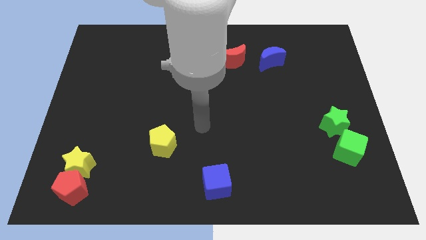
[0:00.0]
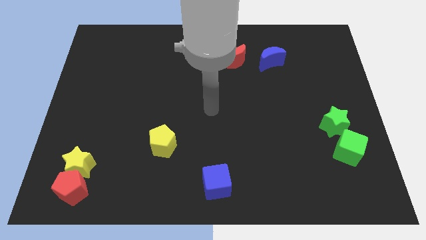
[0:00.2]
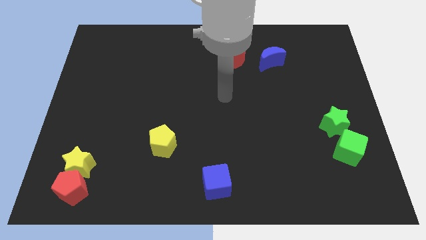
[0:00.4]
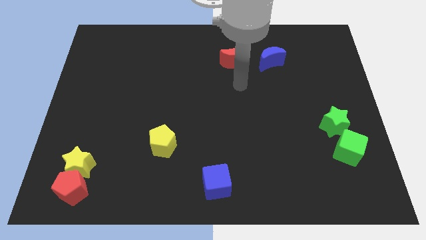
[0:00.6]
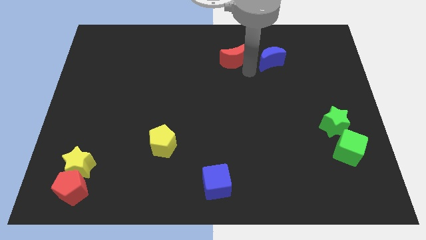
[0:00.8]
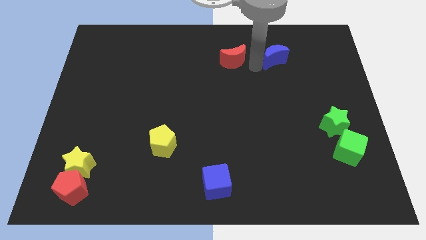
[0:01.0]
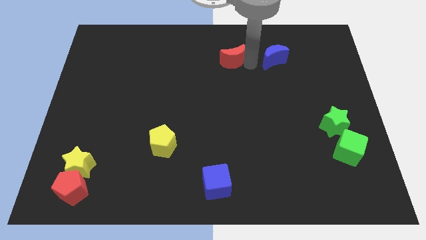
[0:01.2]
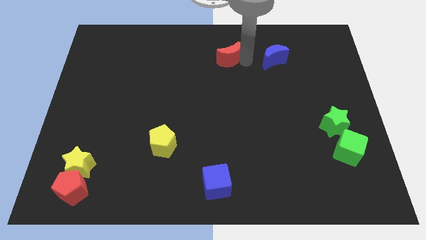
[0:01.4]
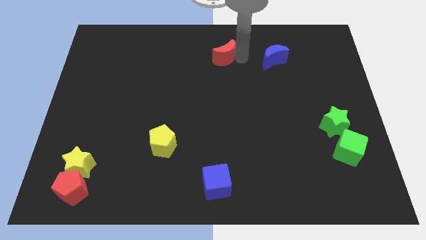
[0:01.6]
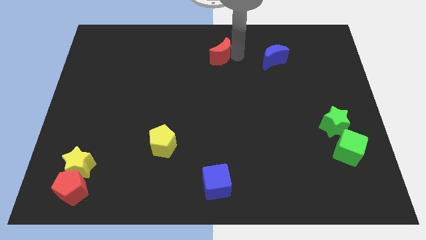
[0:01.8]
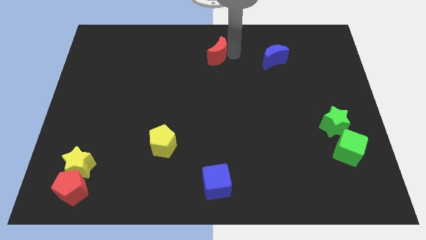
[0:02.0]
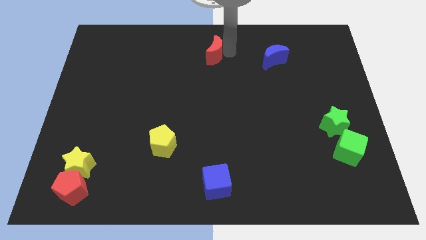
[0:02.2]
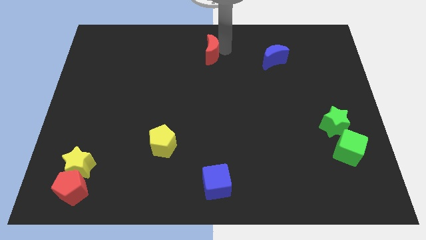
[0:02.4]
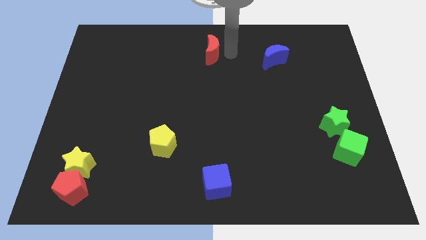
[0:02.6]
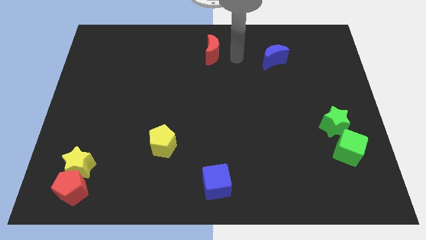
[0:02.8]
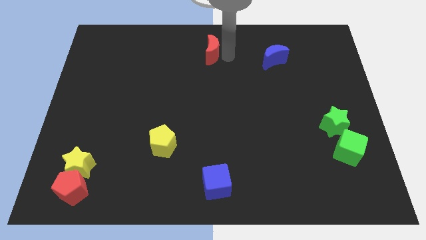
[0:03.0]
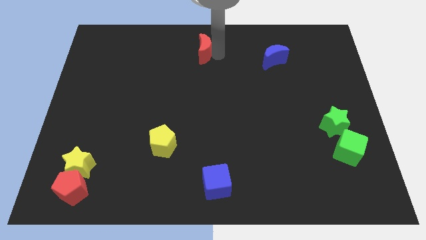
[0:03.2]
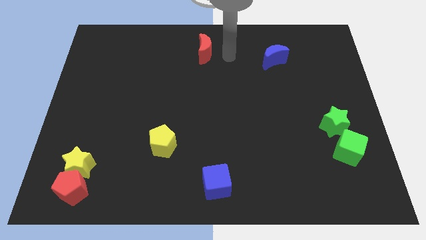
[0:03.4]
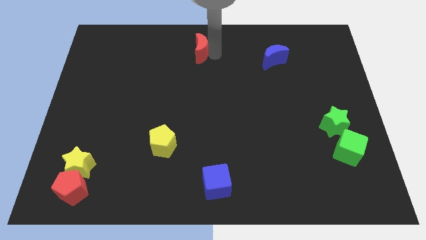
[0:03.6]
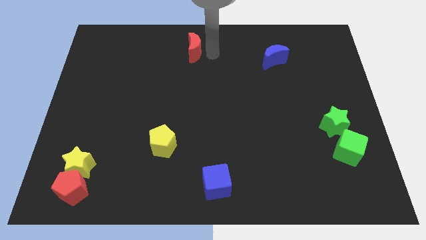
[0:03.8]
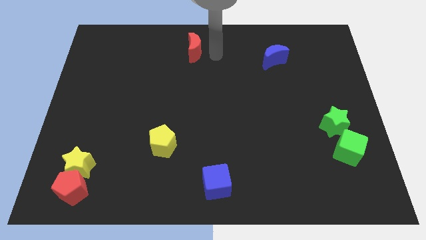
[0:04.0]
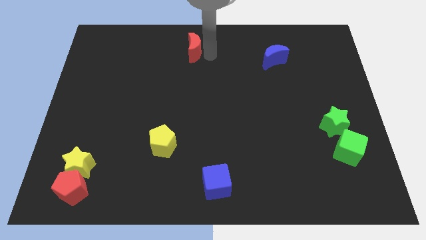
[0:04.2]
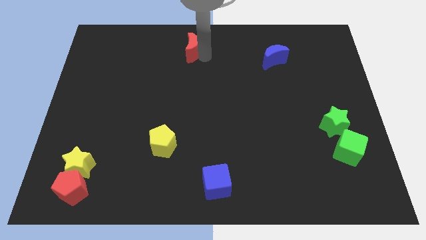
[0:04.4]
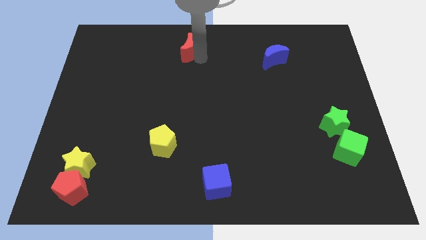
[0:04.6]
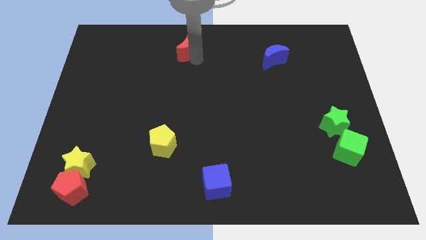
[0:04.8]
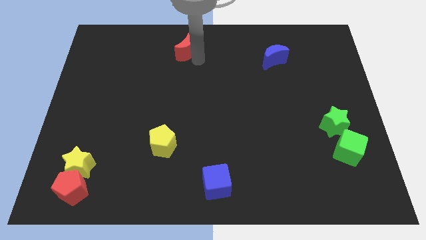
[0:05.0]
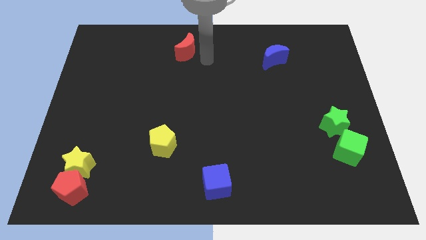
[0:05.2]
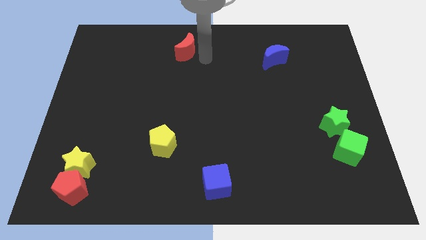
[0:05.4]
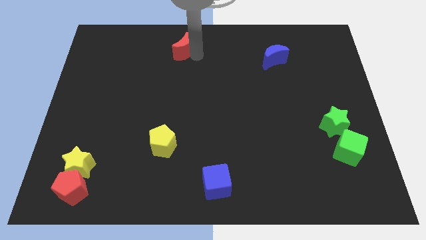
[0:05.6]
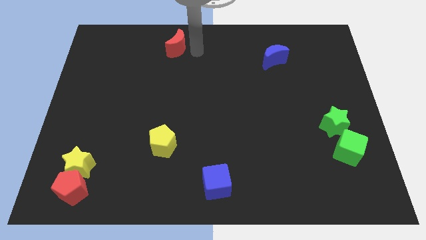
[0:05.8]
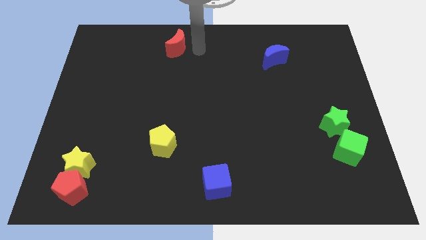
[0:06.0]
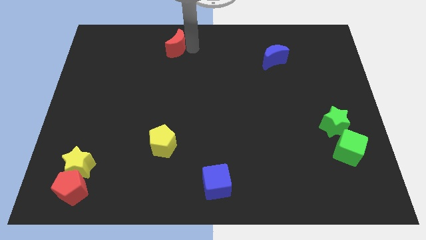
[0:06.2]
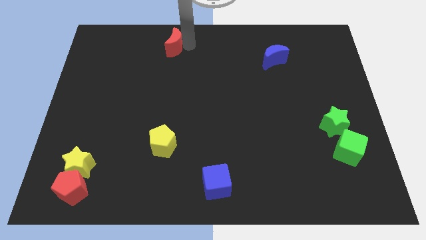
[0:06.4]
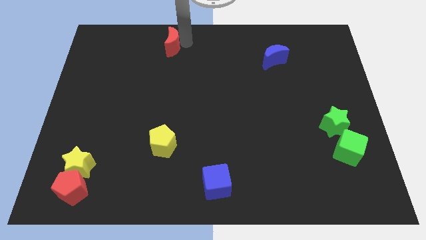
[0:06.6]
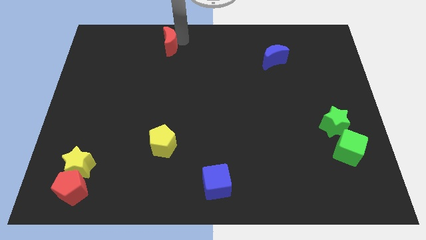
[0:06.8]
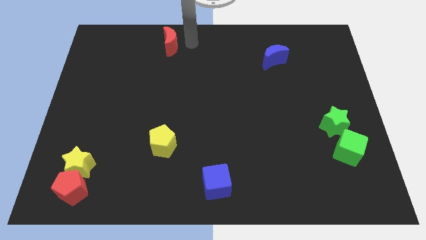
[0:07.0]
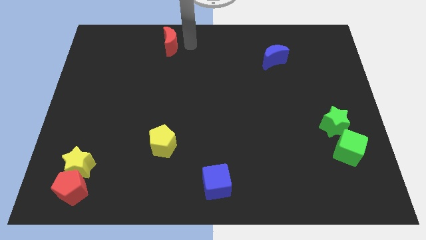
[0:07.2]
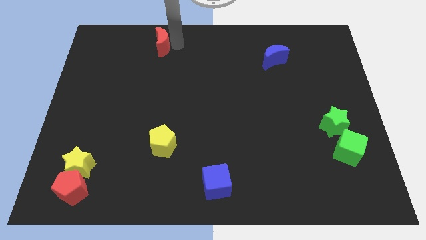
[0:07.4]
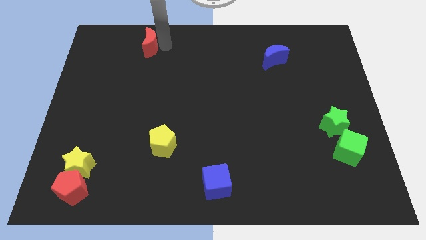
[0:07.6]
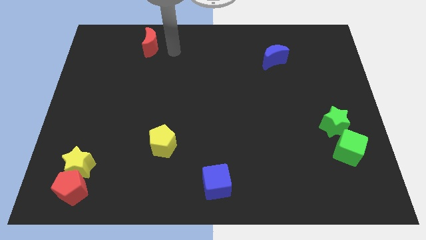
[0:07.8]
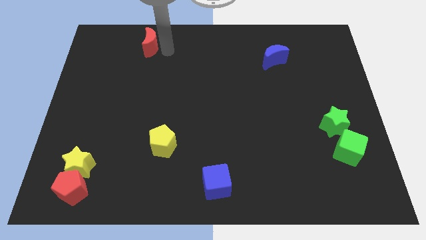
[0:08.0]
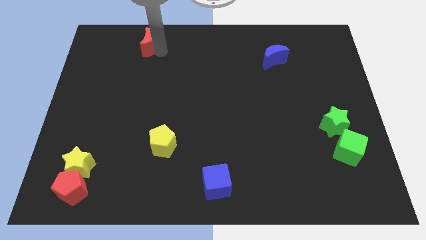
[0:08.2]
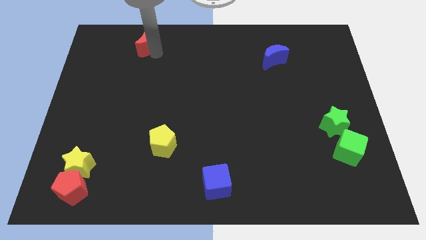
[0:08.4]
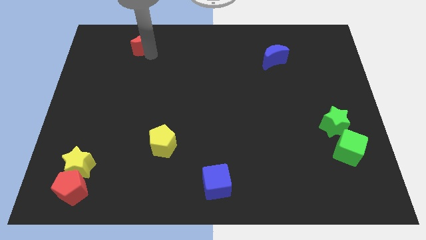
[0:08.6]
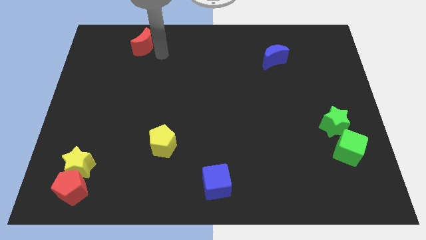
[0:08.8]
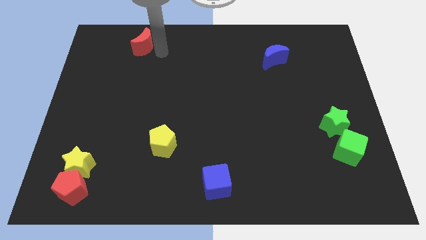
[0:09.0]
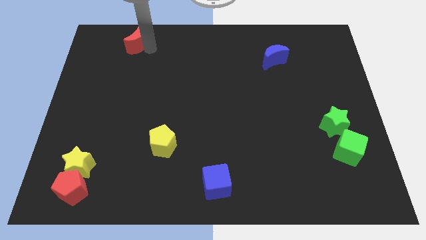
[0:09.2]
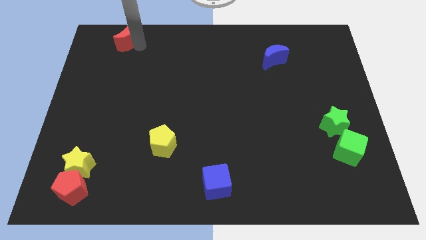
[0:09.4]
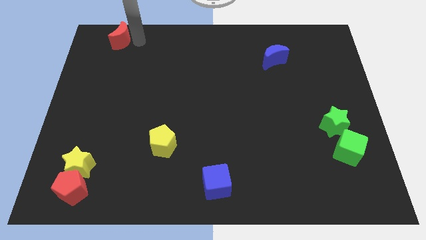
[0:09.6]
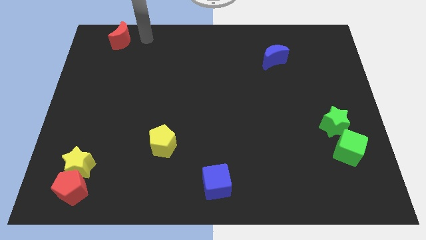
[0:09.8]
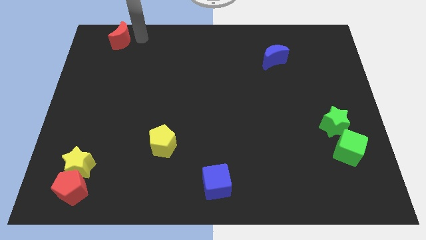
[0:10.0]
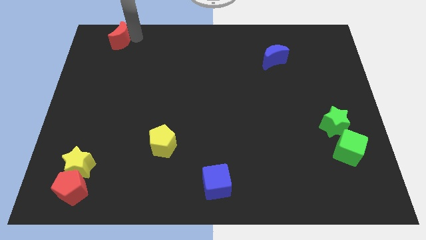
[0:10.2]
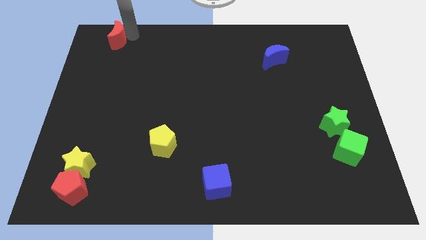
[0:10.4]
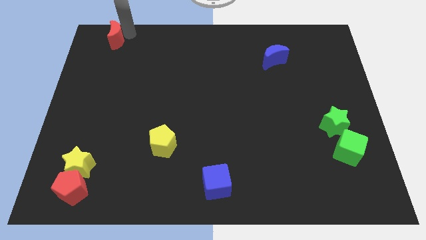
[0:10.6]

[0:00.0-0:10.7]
slide the red moon to the top left of the board

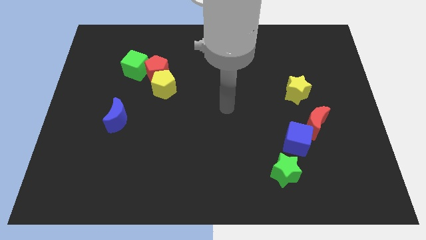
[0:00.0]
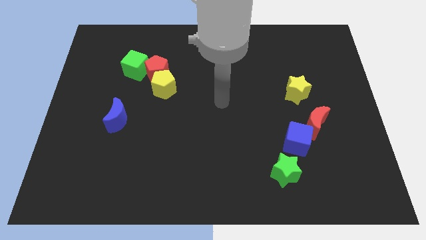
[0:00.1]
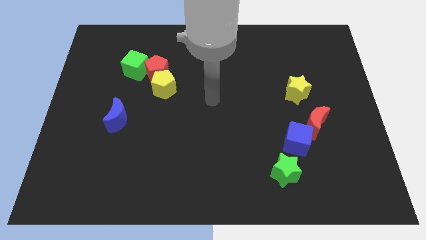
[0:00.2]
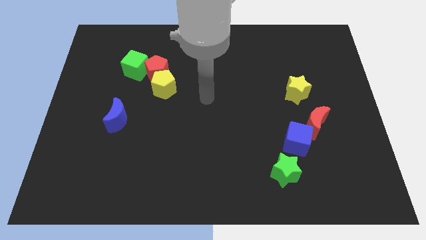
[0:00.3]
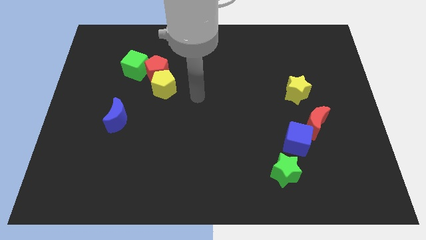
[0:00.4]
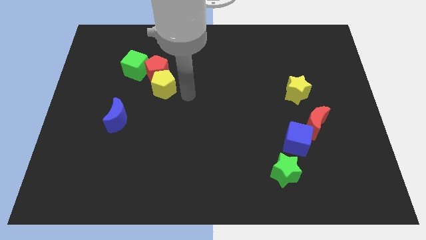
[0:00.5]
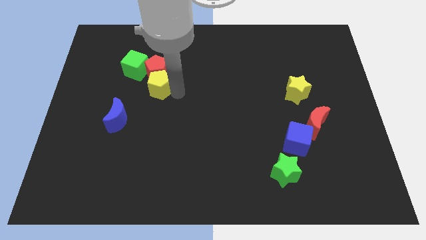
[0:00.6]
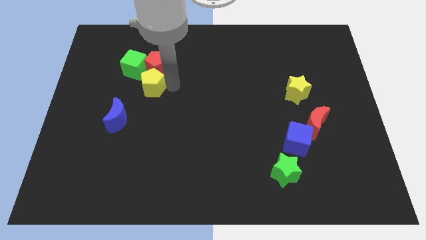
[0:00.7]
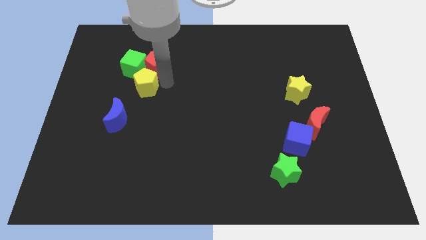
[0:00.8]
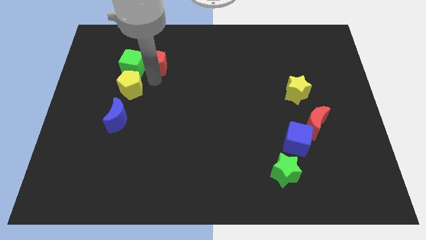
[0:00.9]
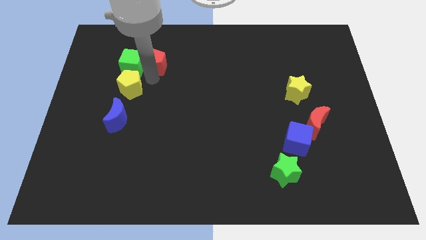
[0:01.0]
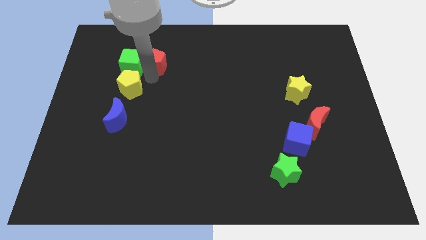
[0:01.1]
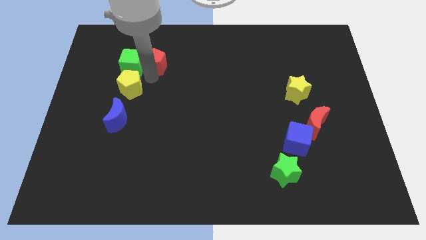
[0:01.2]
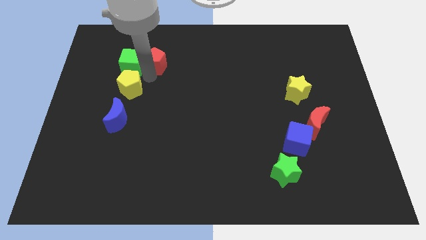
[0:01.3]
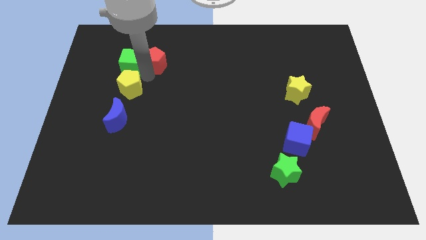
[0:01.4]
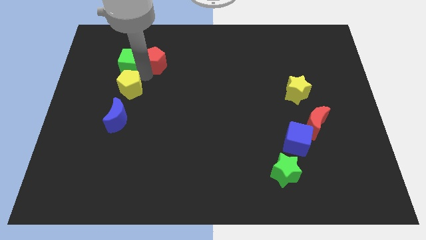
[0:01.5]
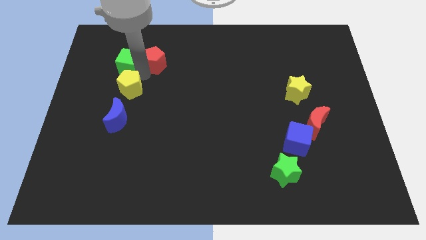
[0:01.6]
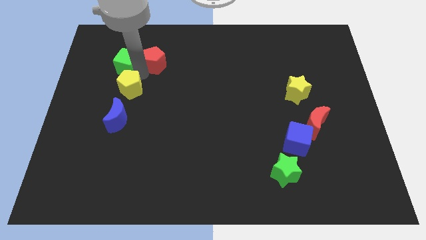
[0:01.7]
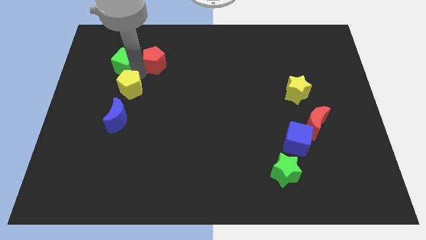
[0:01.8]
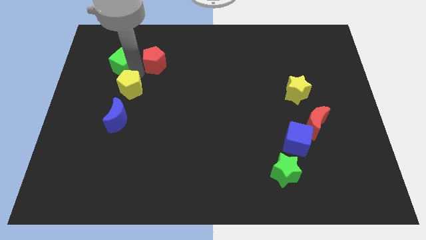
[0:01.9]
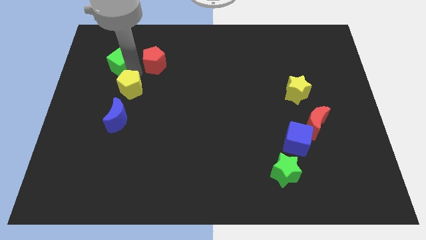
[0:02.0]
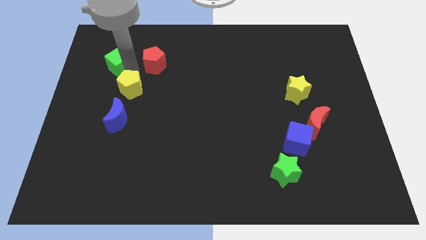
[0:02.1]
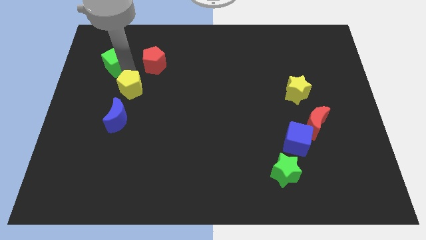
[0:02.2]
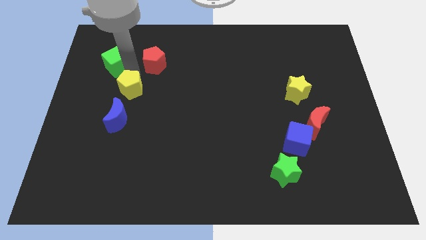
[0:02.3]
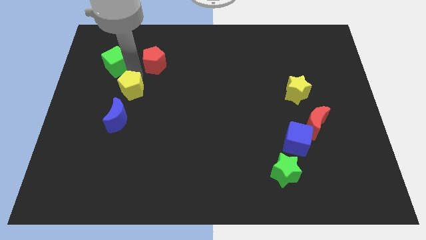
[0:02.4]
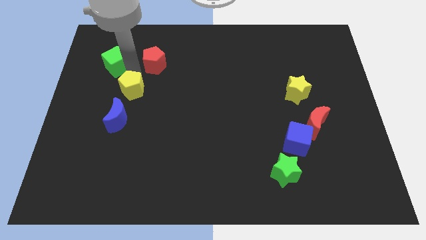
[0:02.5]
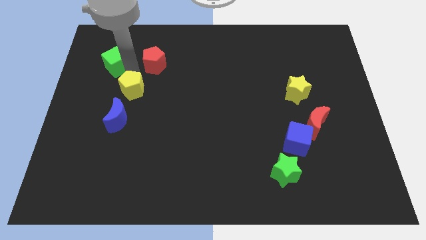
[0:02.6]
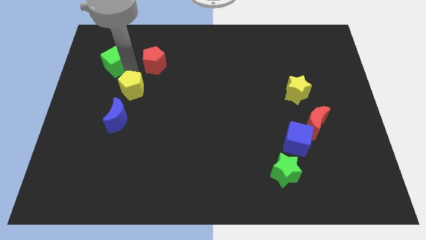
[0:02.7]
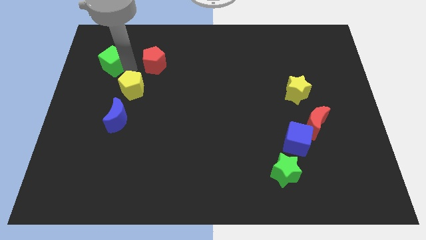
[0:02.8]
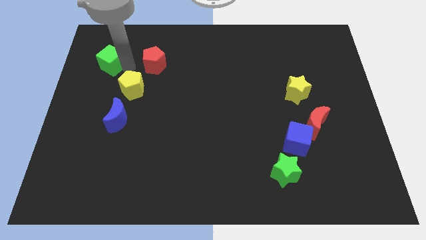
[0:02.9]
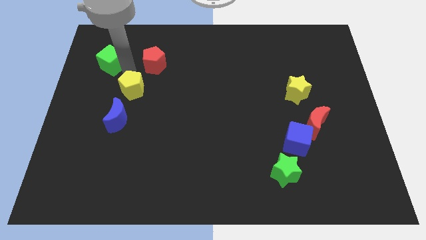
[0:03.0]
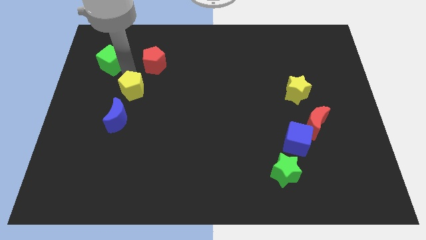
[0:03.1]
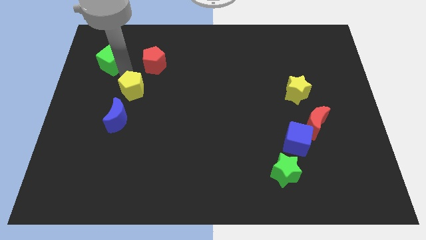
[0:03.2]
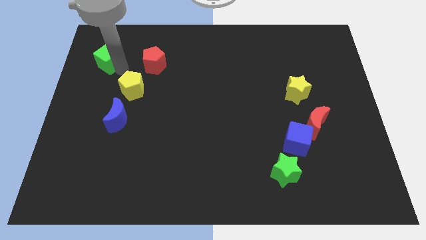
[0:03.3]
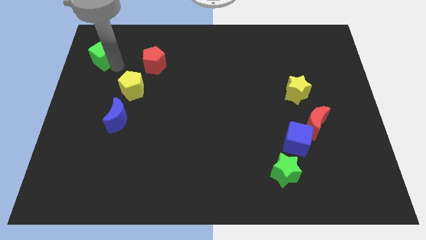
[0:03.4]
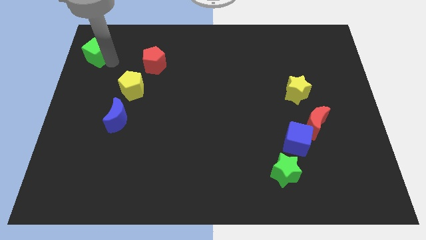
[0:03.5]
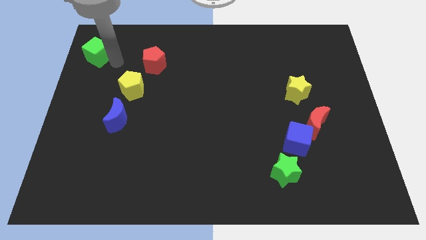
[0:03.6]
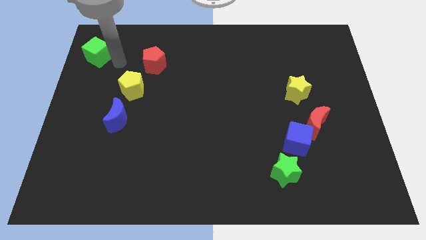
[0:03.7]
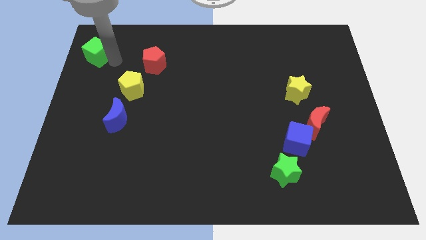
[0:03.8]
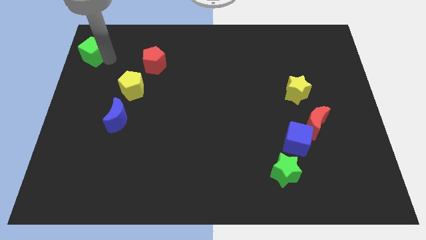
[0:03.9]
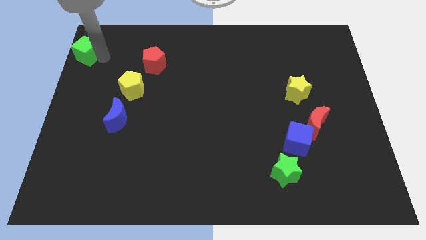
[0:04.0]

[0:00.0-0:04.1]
put the green cube to the top left of the board
